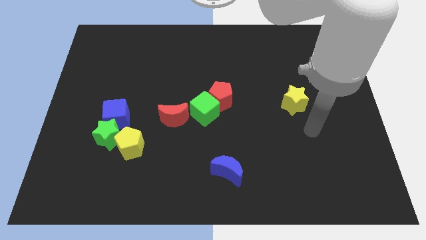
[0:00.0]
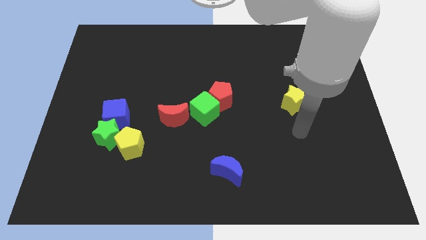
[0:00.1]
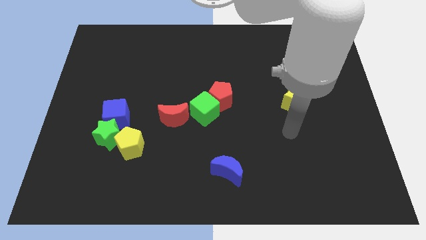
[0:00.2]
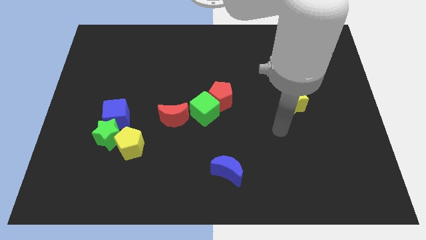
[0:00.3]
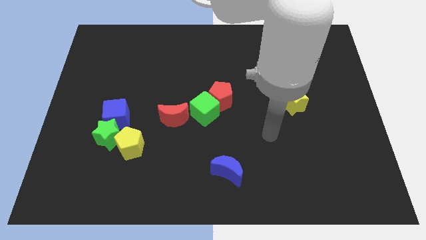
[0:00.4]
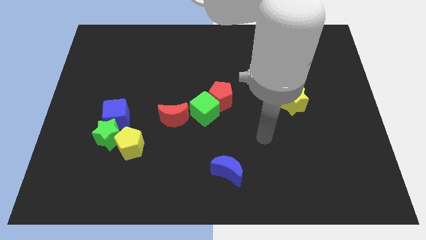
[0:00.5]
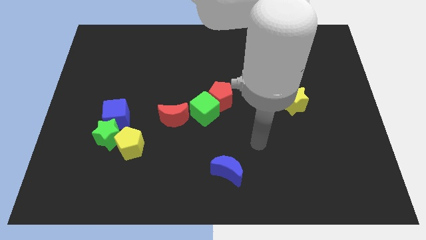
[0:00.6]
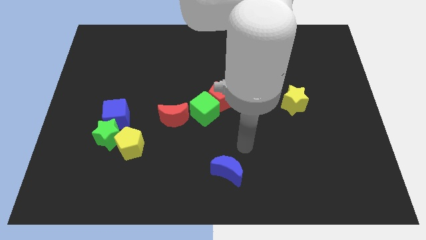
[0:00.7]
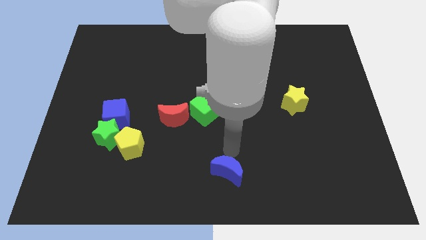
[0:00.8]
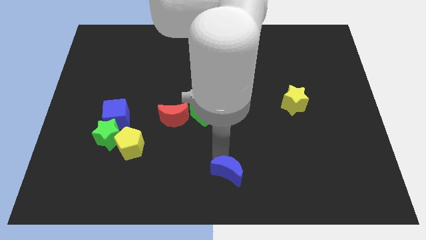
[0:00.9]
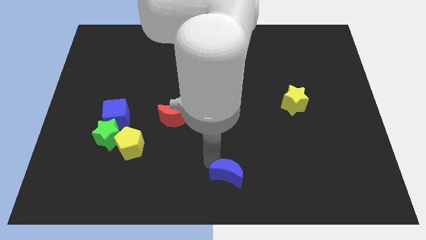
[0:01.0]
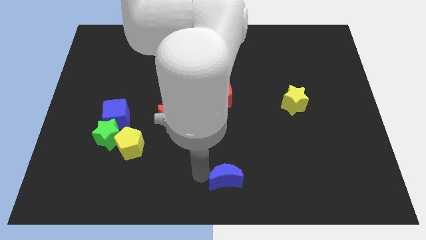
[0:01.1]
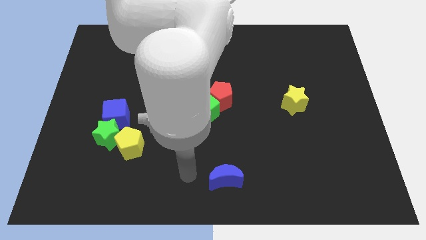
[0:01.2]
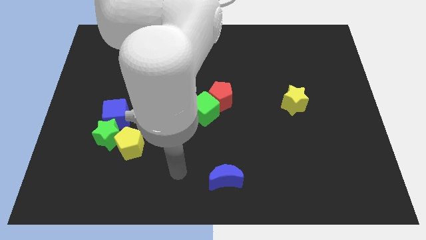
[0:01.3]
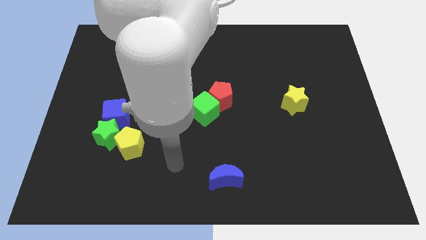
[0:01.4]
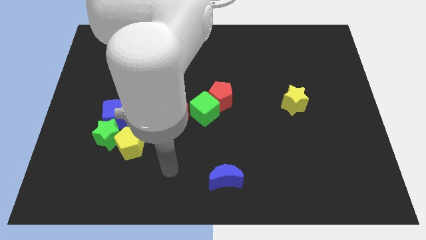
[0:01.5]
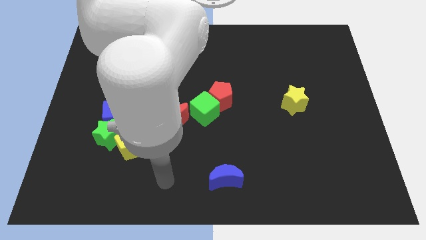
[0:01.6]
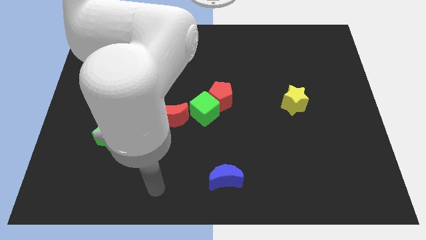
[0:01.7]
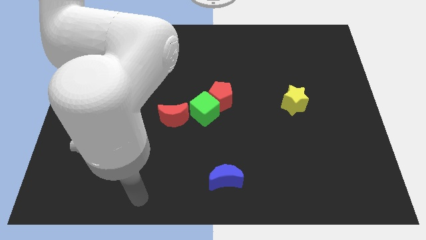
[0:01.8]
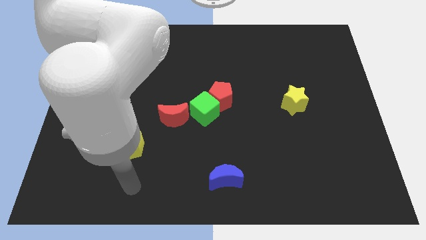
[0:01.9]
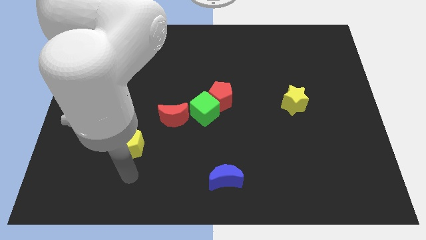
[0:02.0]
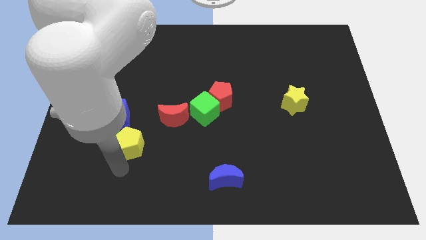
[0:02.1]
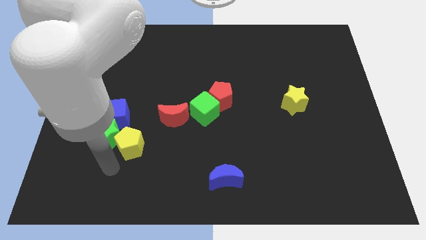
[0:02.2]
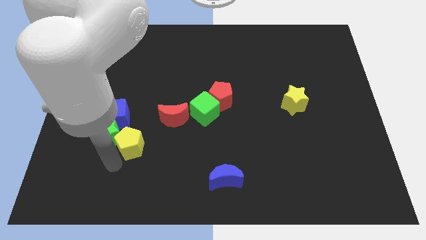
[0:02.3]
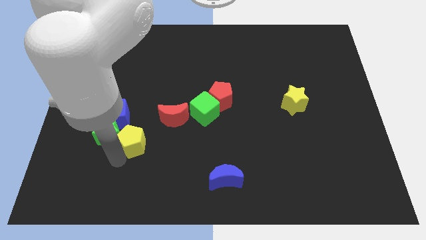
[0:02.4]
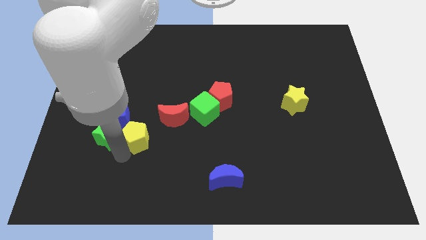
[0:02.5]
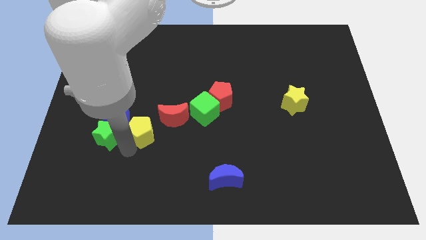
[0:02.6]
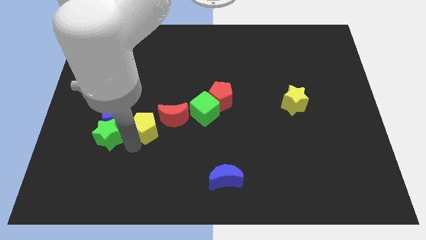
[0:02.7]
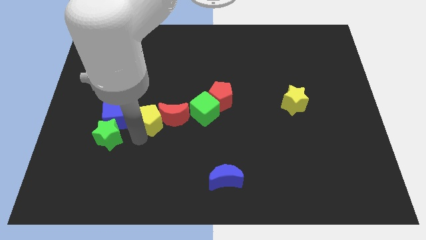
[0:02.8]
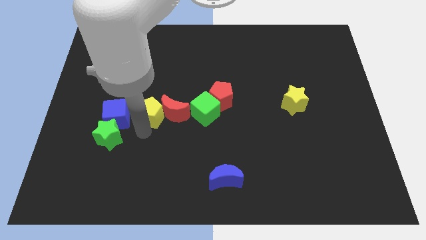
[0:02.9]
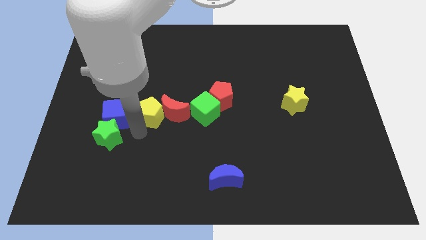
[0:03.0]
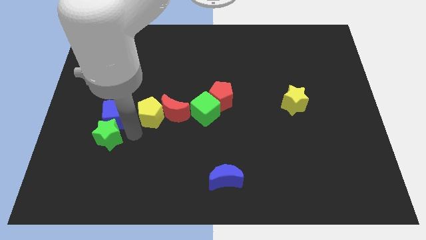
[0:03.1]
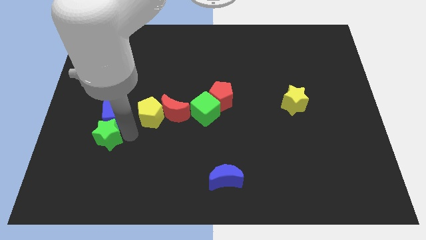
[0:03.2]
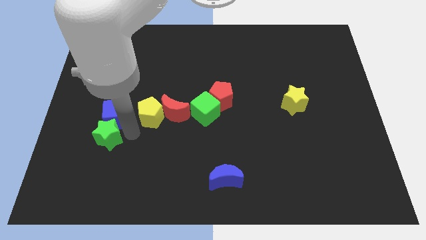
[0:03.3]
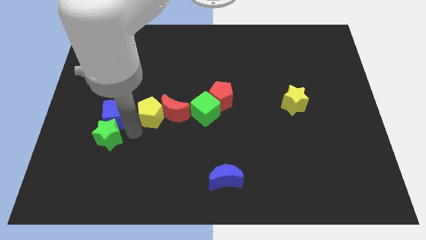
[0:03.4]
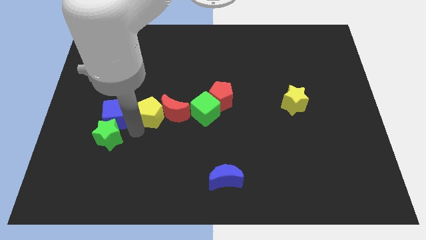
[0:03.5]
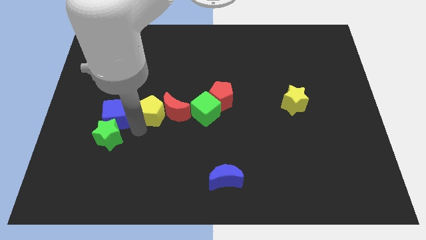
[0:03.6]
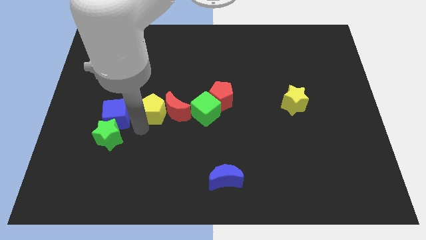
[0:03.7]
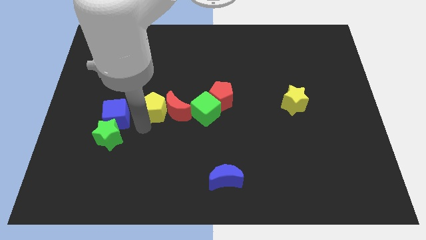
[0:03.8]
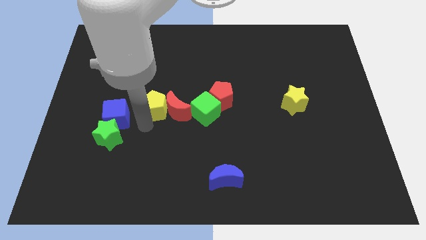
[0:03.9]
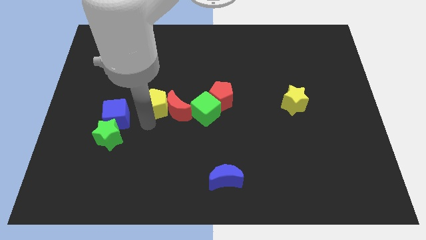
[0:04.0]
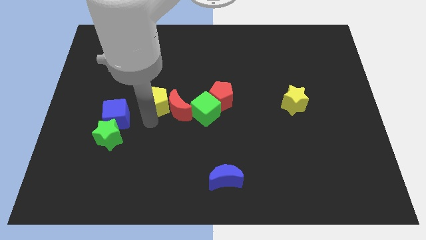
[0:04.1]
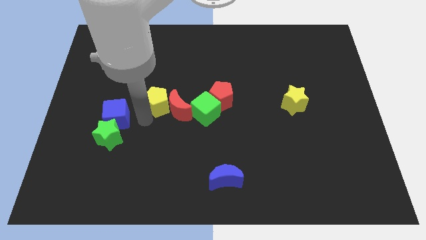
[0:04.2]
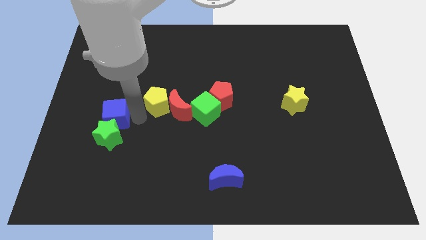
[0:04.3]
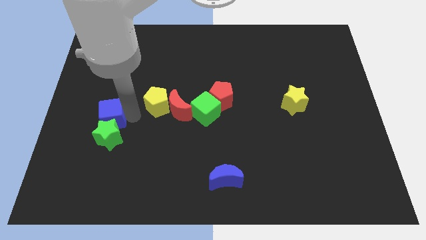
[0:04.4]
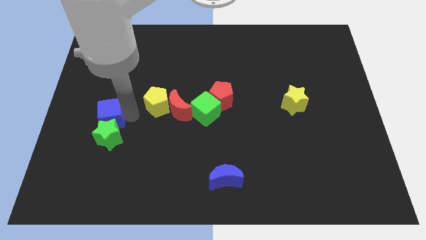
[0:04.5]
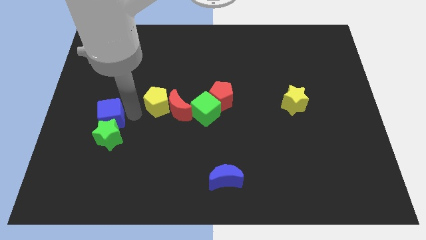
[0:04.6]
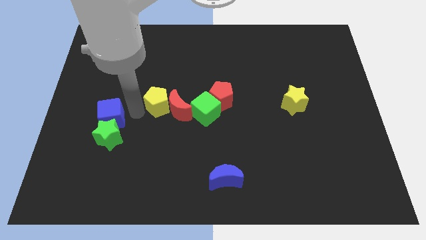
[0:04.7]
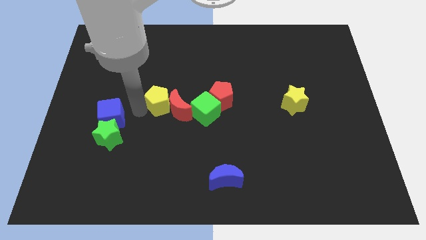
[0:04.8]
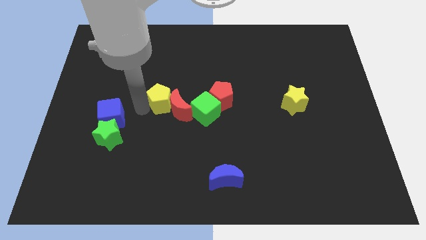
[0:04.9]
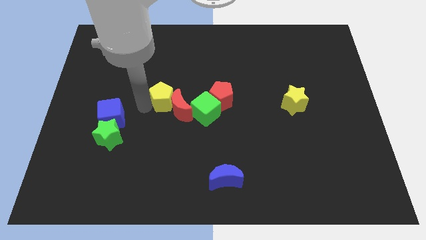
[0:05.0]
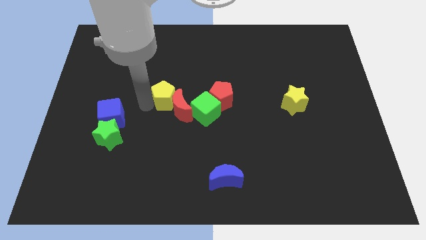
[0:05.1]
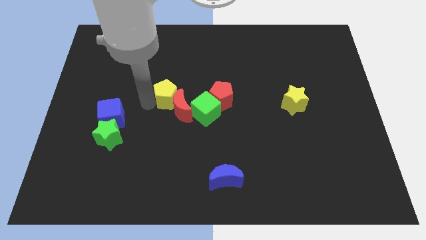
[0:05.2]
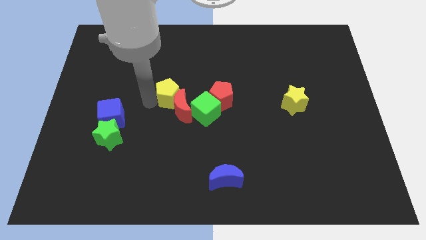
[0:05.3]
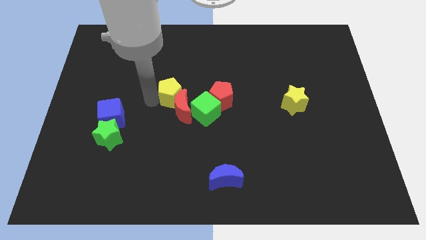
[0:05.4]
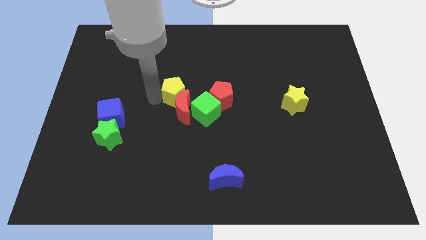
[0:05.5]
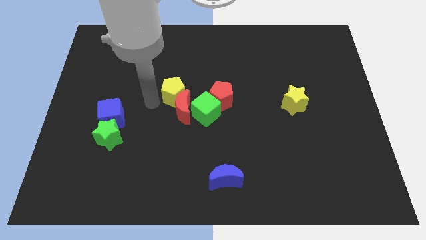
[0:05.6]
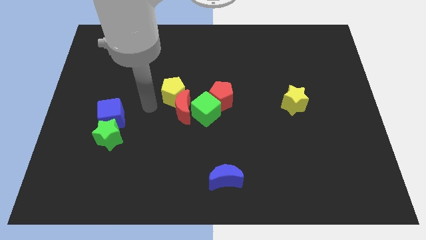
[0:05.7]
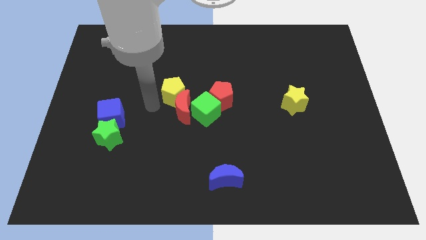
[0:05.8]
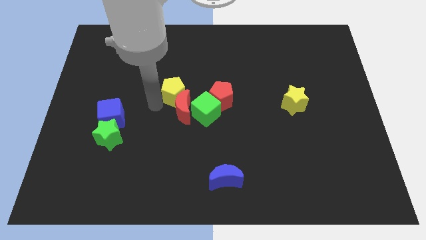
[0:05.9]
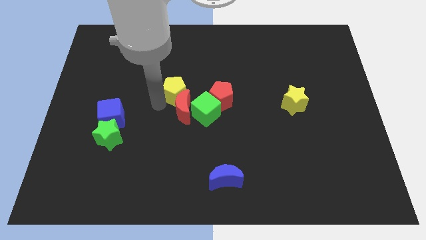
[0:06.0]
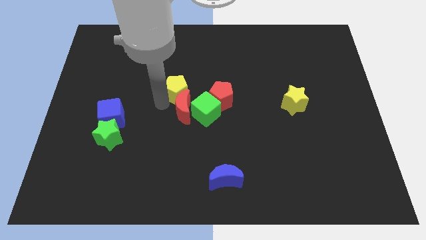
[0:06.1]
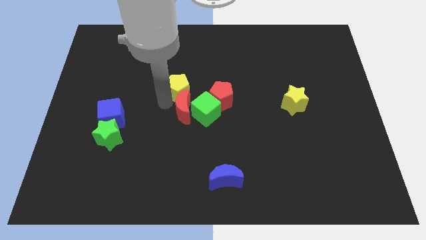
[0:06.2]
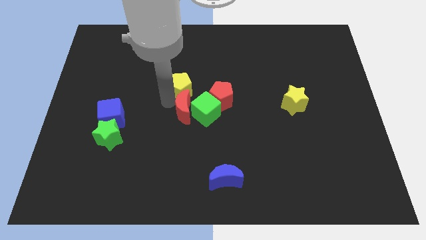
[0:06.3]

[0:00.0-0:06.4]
move the yellow pentagon to the top left side of the red pentagon

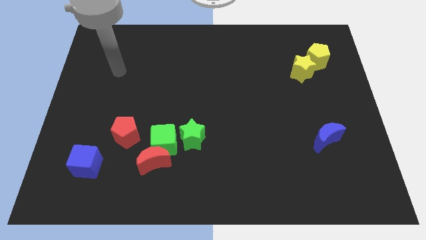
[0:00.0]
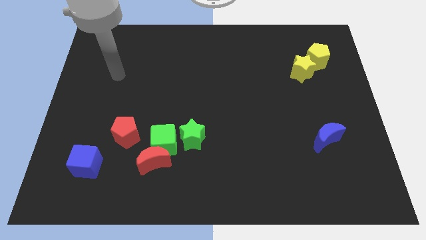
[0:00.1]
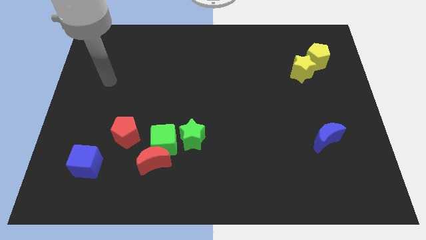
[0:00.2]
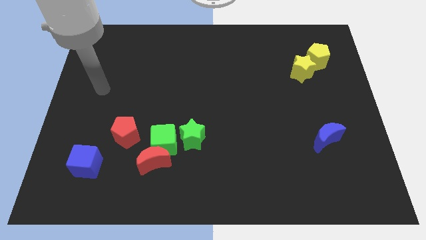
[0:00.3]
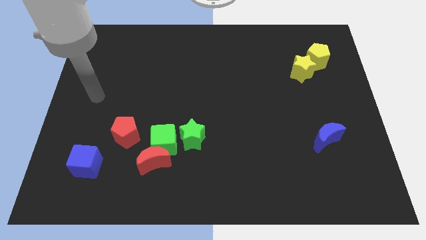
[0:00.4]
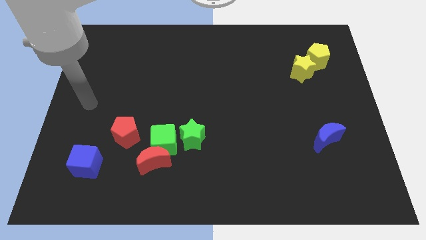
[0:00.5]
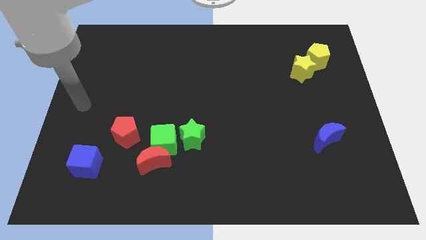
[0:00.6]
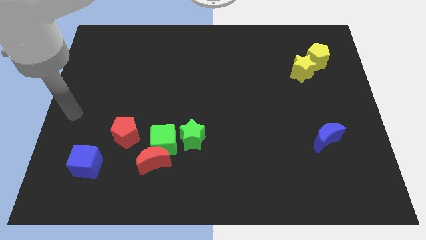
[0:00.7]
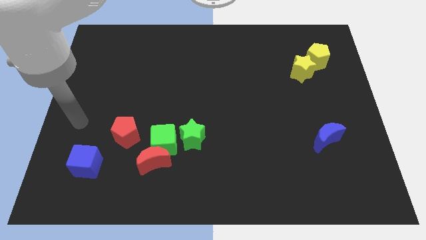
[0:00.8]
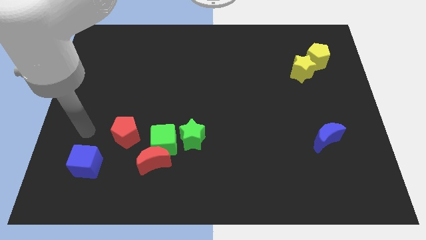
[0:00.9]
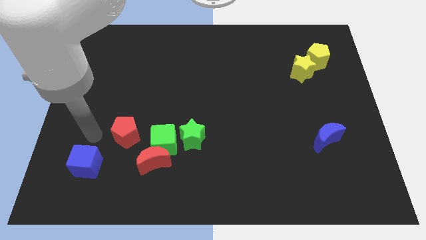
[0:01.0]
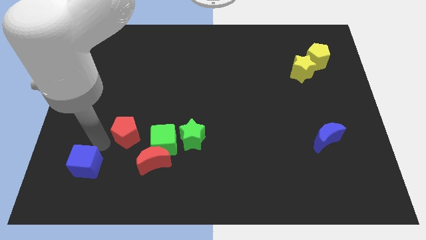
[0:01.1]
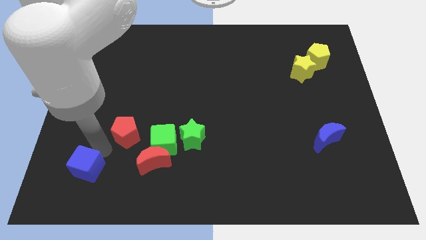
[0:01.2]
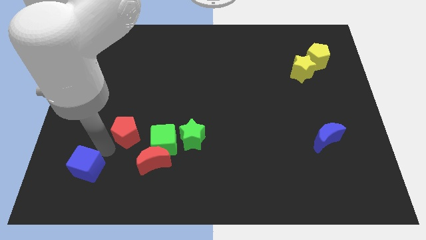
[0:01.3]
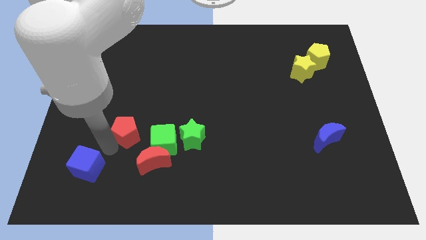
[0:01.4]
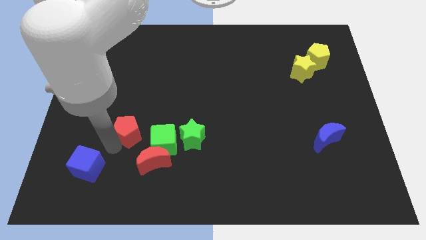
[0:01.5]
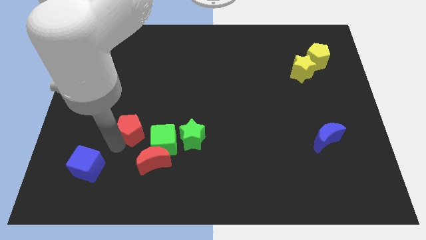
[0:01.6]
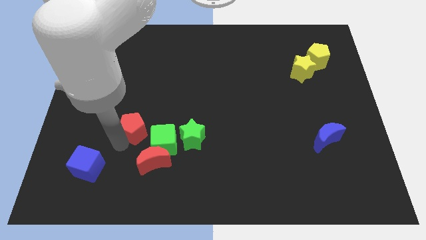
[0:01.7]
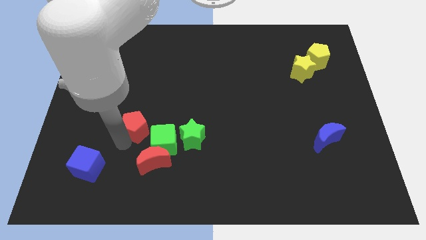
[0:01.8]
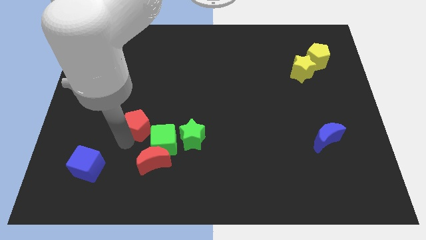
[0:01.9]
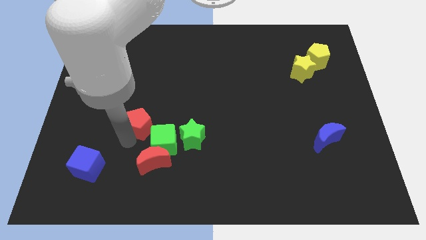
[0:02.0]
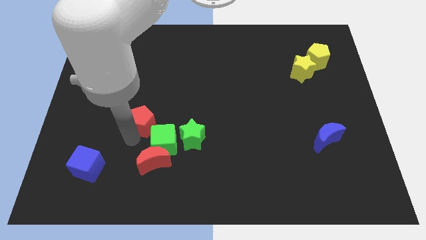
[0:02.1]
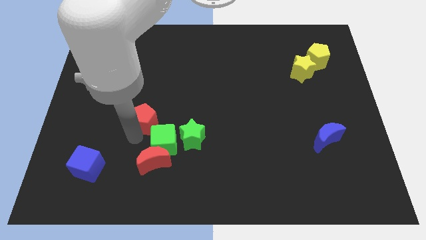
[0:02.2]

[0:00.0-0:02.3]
push the red pentagon to the top side of the green cube
